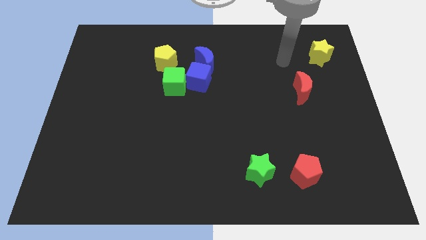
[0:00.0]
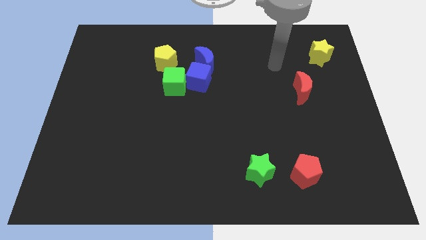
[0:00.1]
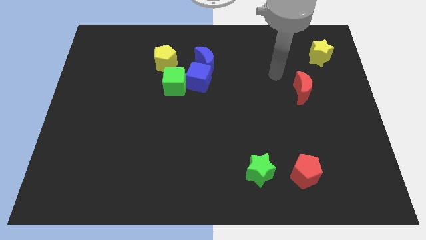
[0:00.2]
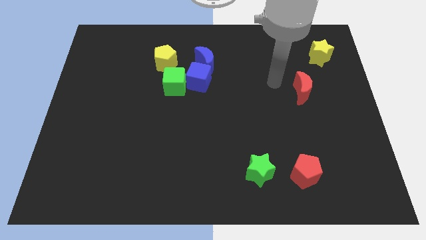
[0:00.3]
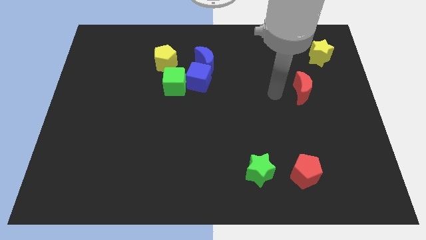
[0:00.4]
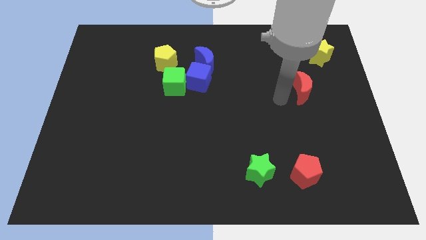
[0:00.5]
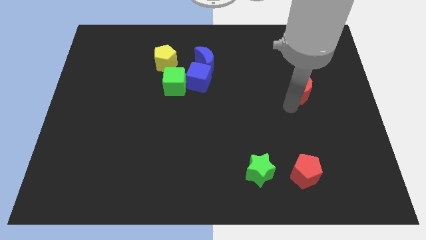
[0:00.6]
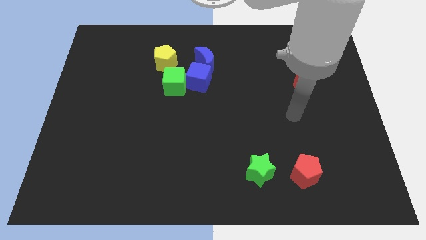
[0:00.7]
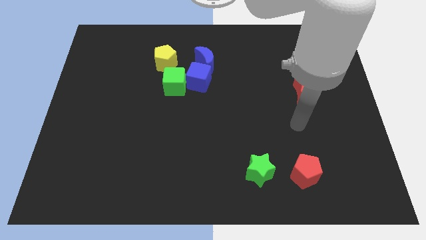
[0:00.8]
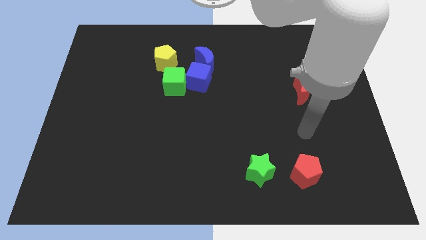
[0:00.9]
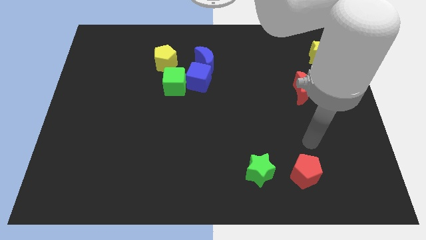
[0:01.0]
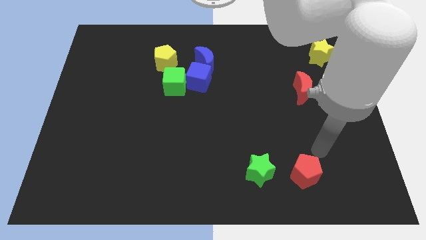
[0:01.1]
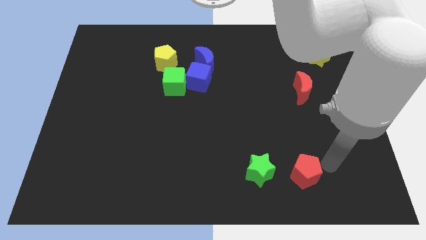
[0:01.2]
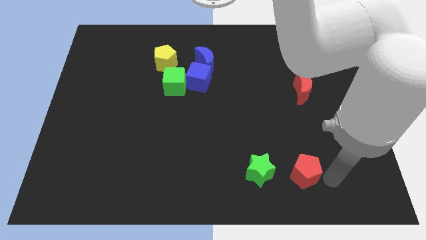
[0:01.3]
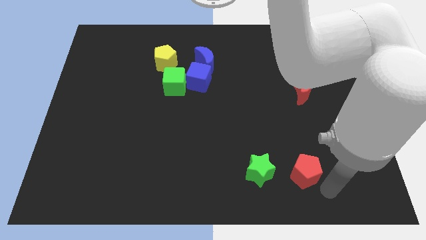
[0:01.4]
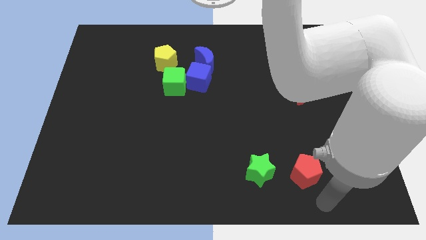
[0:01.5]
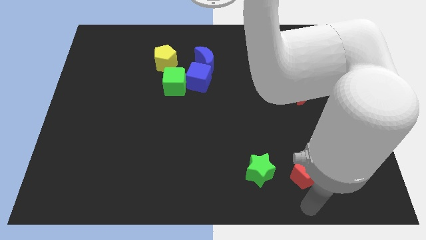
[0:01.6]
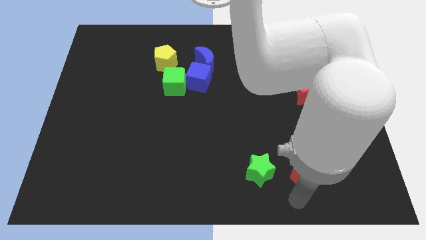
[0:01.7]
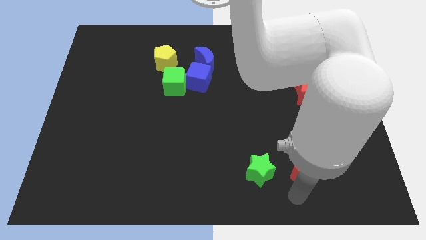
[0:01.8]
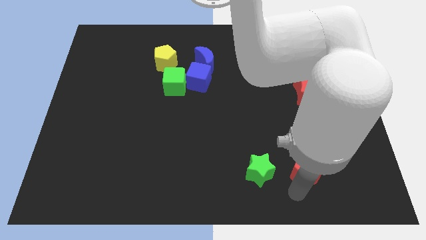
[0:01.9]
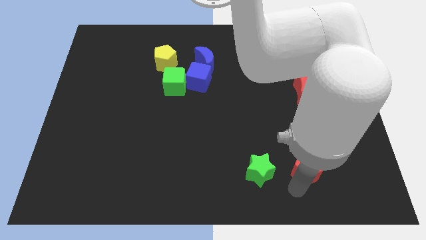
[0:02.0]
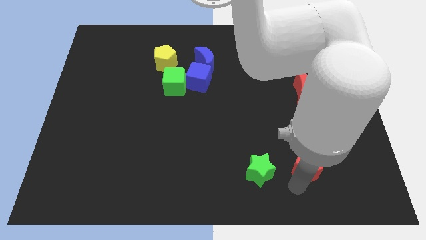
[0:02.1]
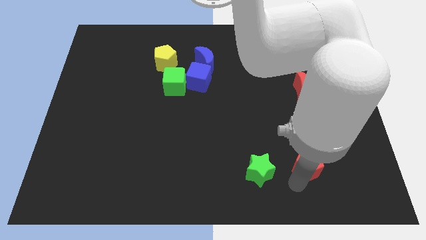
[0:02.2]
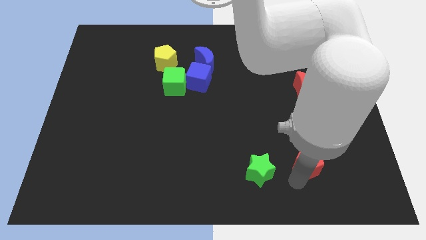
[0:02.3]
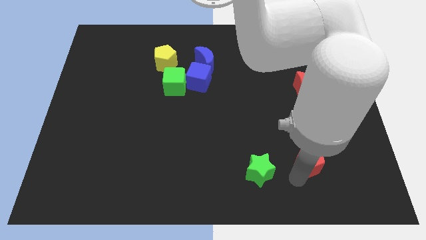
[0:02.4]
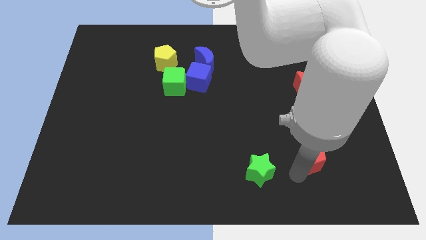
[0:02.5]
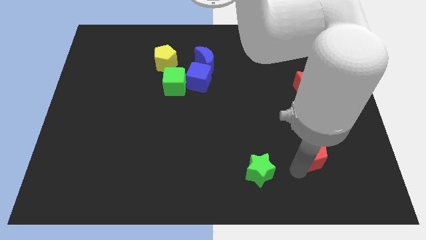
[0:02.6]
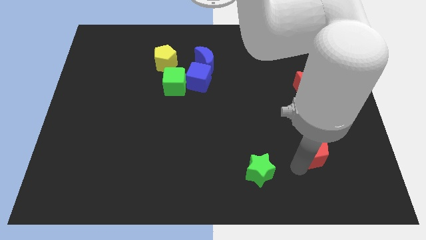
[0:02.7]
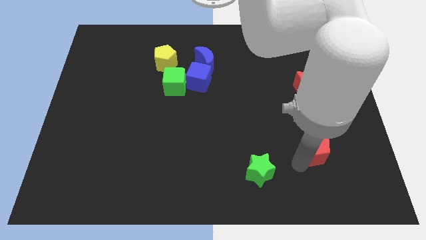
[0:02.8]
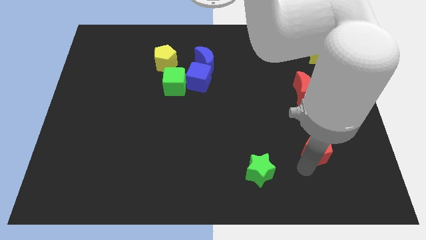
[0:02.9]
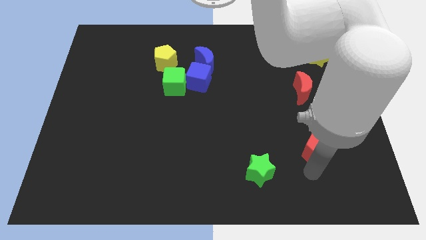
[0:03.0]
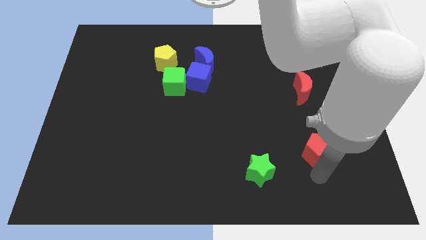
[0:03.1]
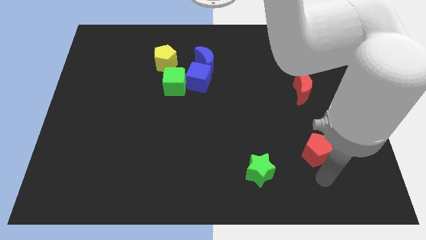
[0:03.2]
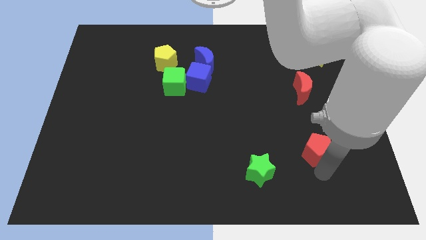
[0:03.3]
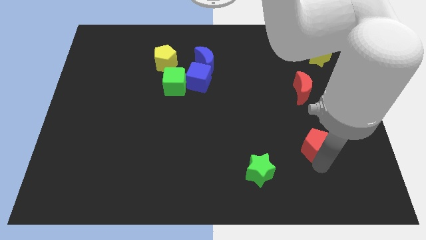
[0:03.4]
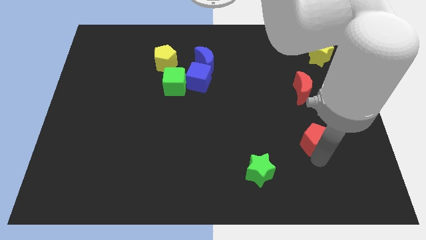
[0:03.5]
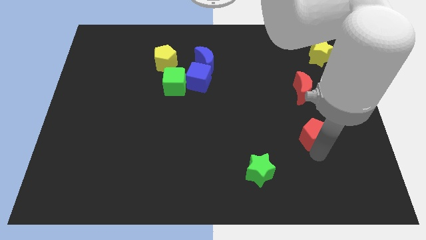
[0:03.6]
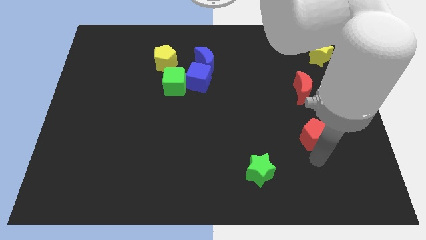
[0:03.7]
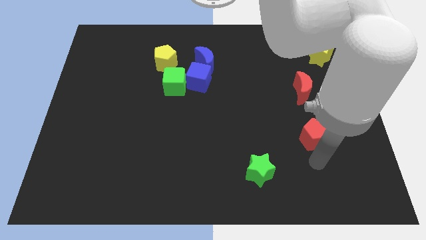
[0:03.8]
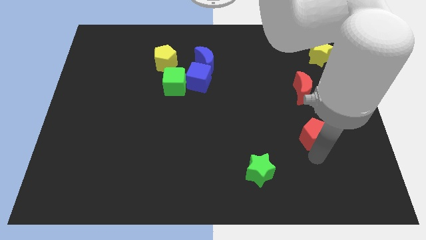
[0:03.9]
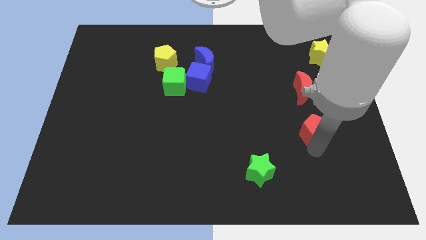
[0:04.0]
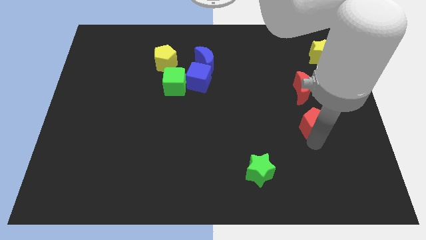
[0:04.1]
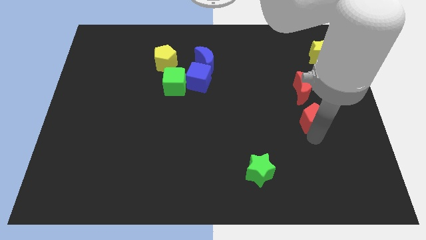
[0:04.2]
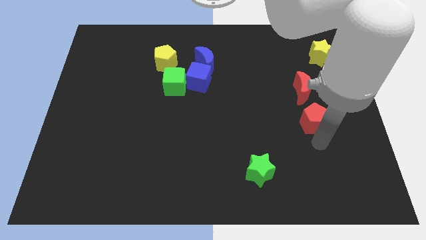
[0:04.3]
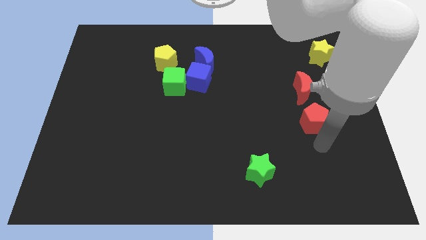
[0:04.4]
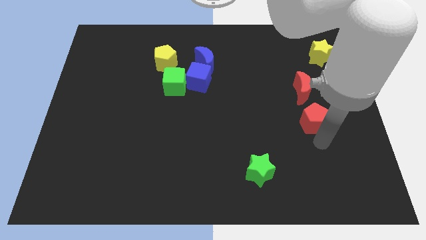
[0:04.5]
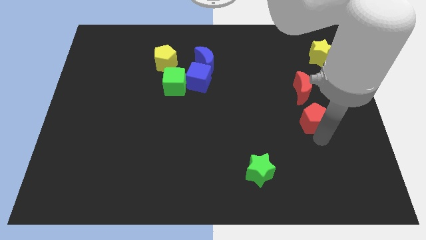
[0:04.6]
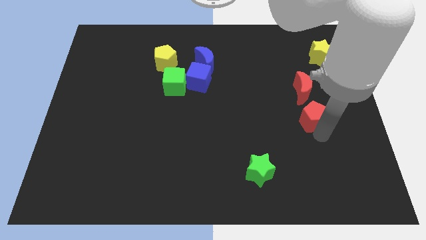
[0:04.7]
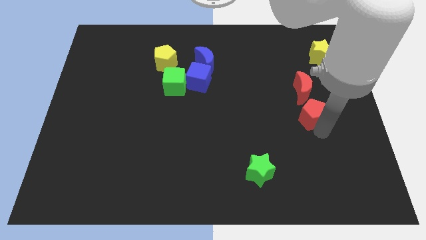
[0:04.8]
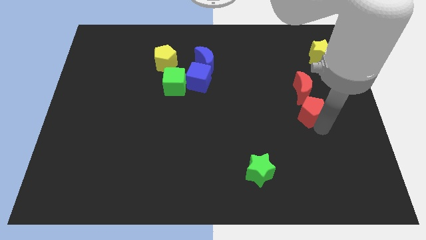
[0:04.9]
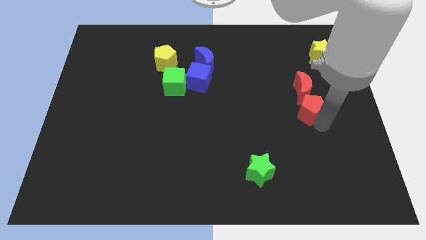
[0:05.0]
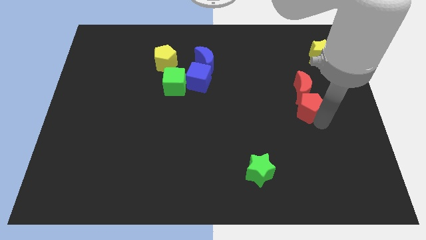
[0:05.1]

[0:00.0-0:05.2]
put the red pentagon close to the red moon

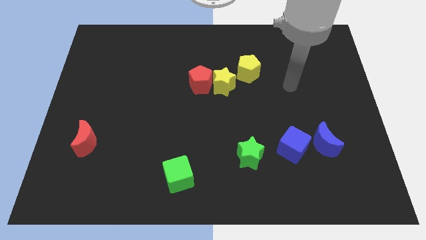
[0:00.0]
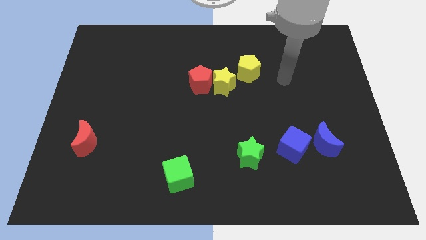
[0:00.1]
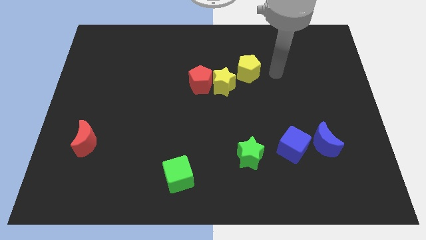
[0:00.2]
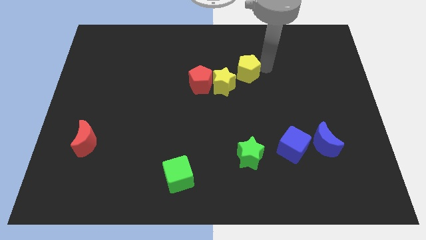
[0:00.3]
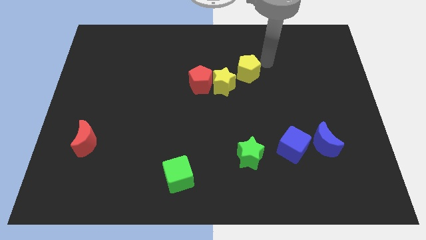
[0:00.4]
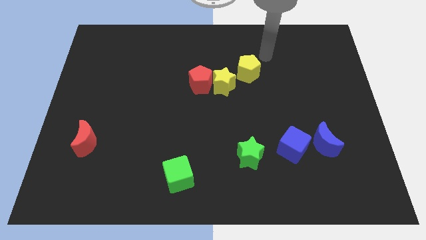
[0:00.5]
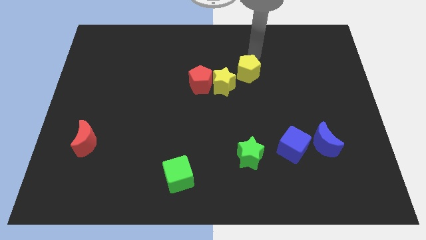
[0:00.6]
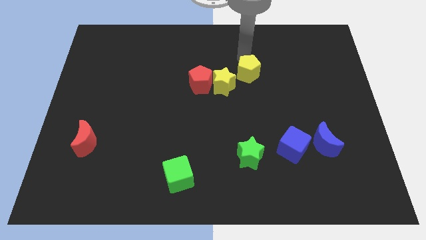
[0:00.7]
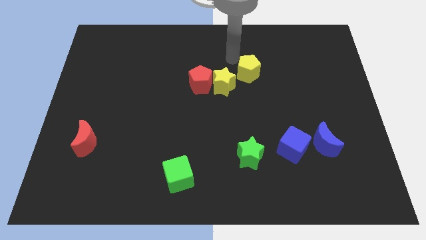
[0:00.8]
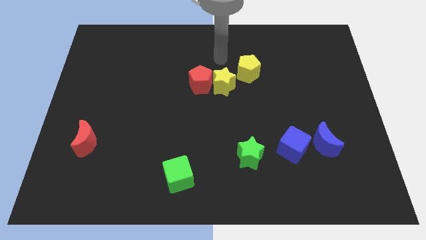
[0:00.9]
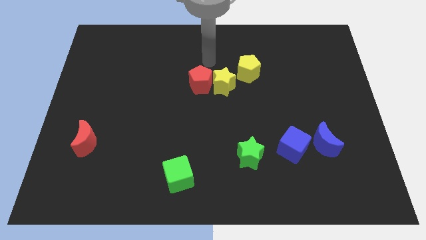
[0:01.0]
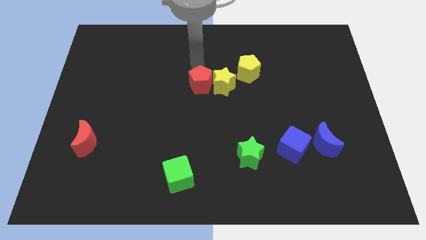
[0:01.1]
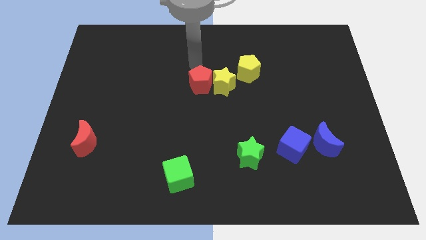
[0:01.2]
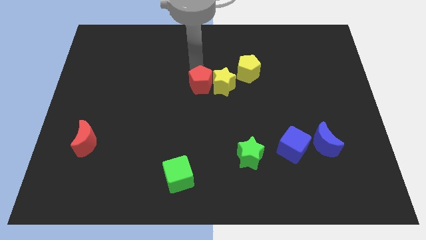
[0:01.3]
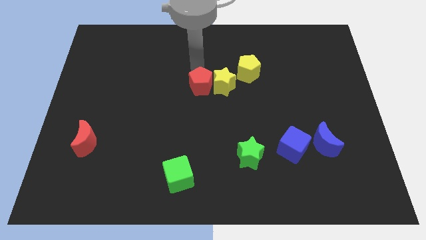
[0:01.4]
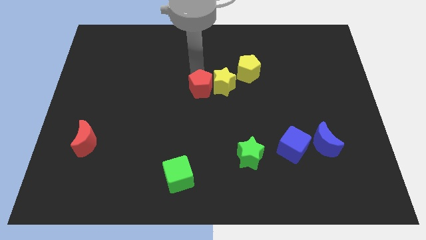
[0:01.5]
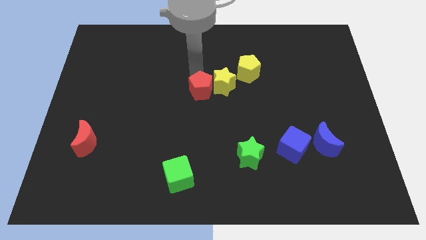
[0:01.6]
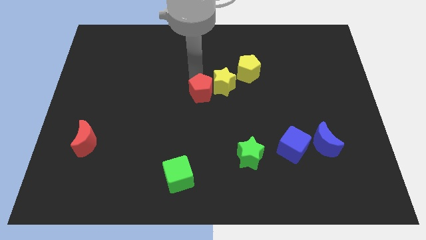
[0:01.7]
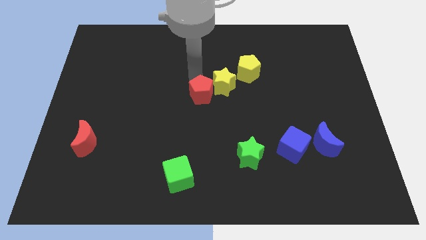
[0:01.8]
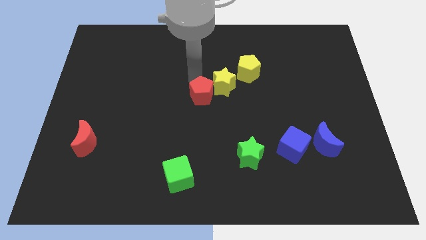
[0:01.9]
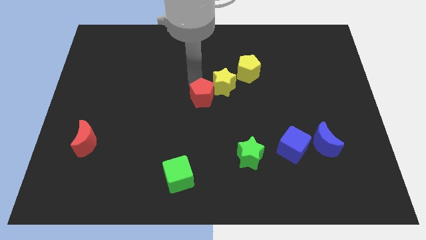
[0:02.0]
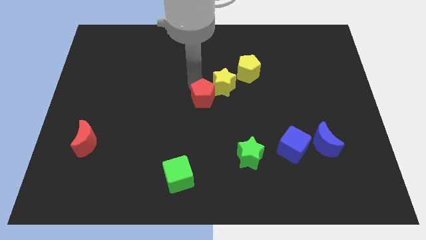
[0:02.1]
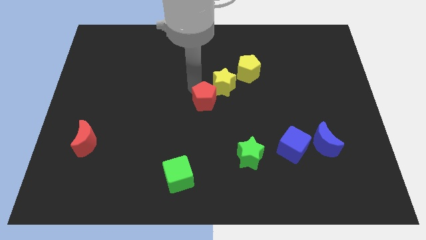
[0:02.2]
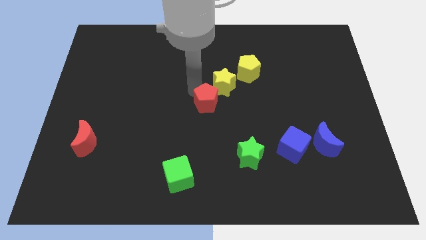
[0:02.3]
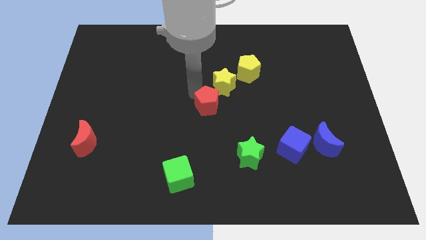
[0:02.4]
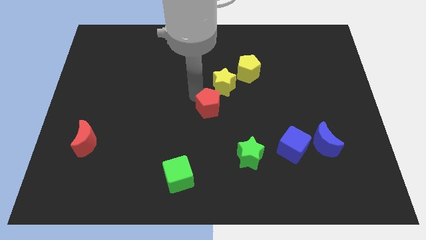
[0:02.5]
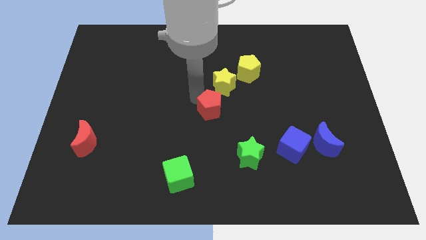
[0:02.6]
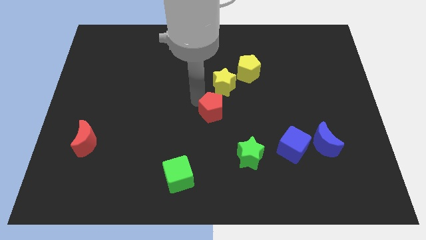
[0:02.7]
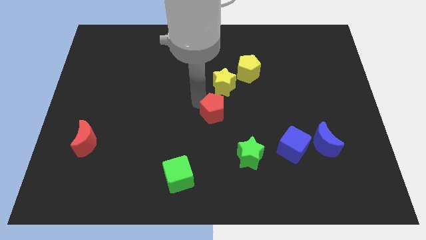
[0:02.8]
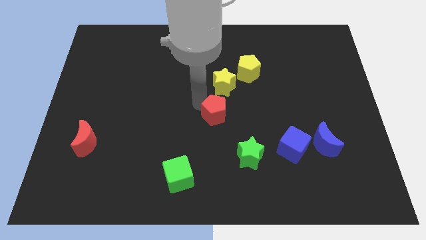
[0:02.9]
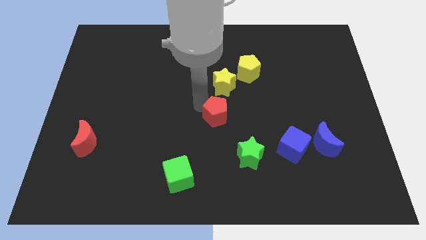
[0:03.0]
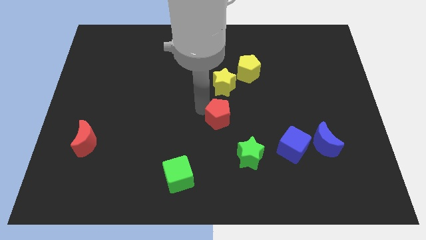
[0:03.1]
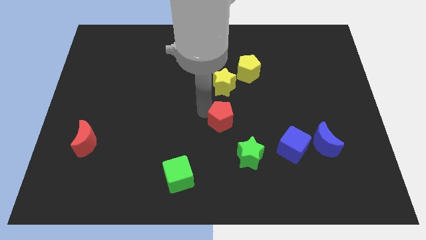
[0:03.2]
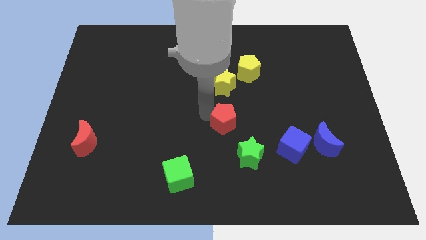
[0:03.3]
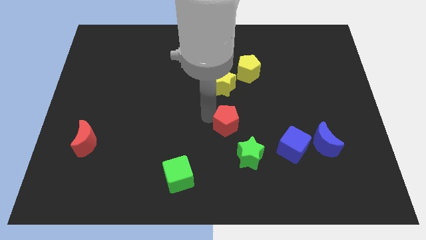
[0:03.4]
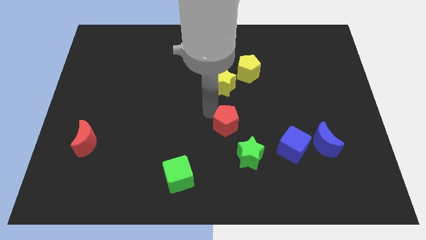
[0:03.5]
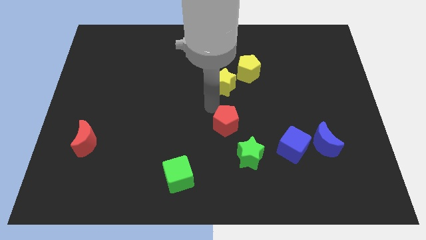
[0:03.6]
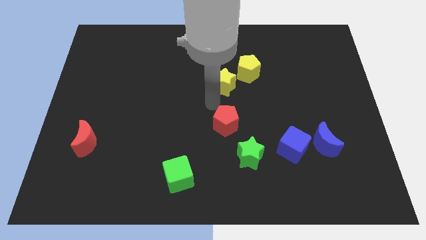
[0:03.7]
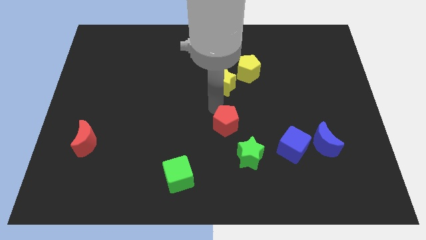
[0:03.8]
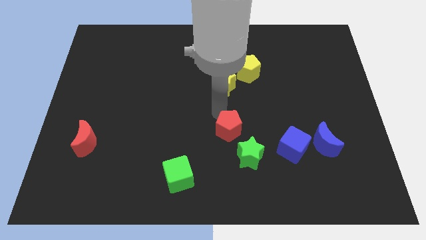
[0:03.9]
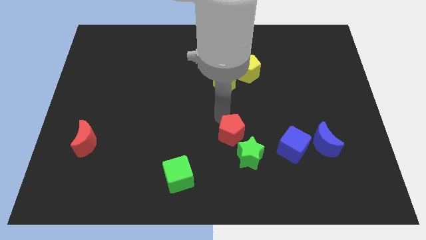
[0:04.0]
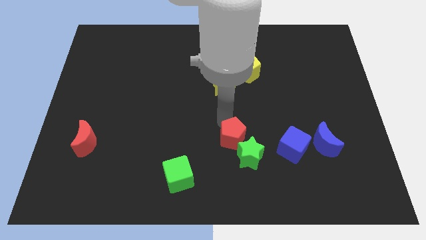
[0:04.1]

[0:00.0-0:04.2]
put the red pentagon to the green star
